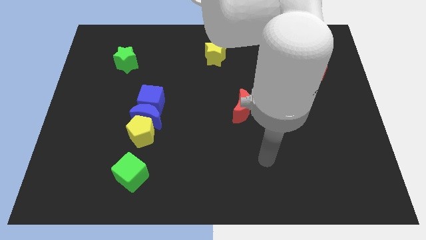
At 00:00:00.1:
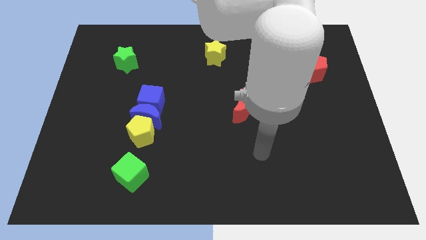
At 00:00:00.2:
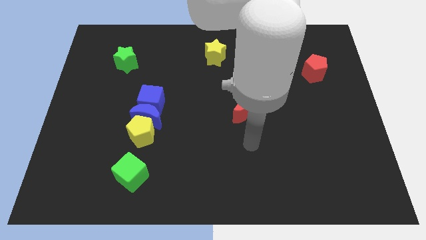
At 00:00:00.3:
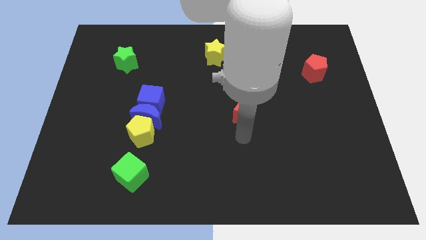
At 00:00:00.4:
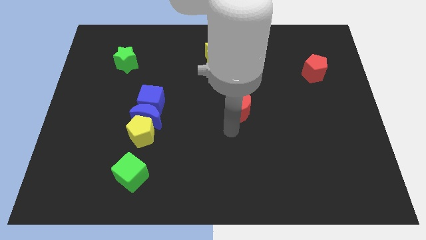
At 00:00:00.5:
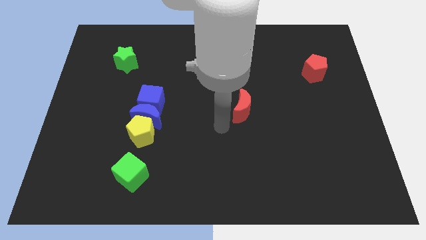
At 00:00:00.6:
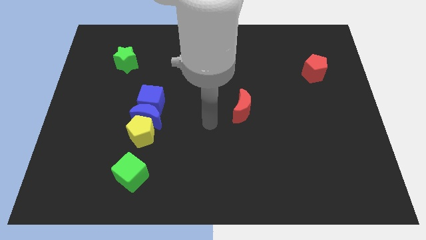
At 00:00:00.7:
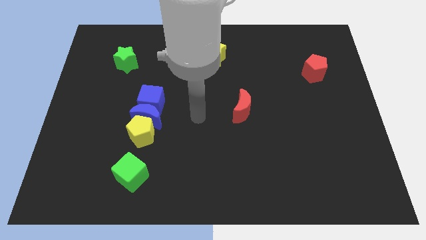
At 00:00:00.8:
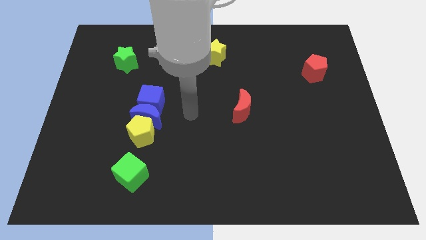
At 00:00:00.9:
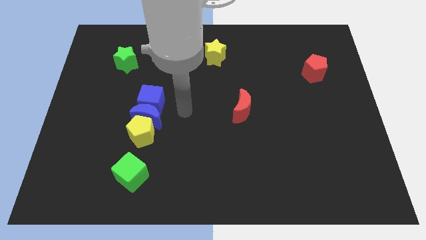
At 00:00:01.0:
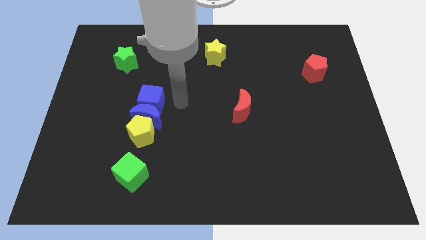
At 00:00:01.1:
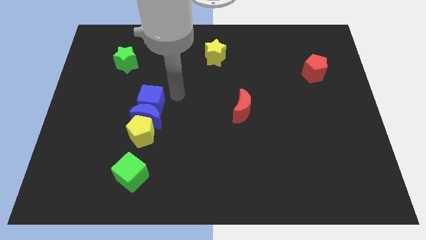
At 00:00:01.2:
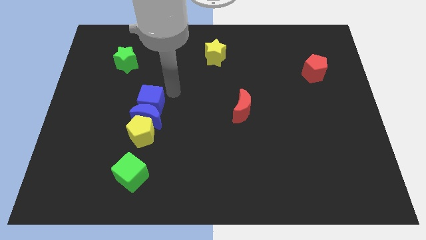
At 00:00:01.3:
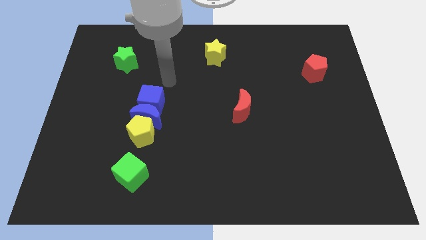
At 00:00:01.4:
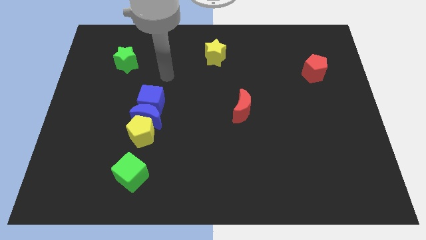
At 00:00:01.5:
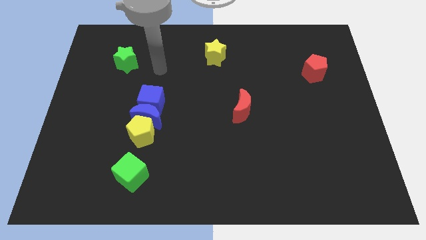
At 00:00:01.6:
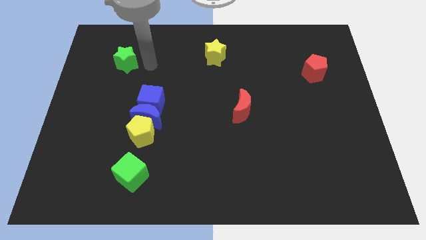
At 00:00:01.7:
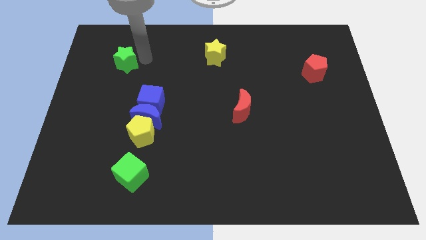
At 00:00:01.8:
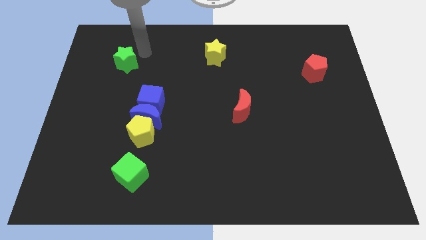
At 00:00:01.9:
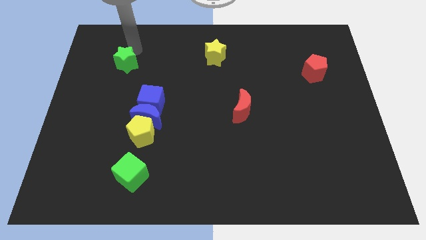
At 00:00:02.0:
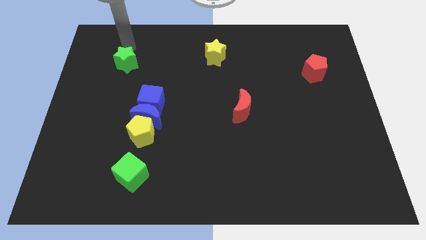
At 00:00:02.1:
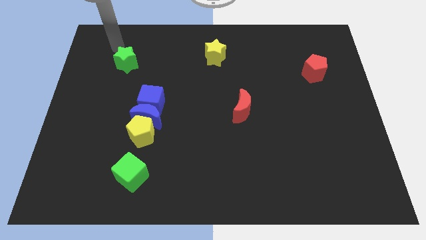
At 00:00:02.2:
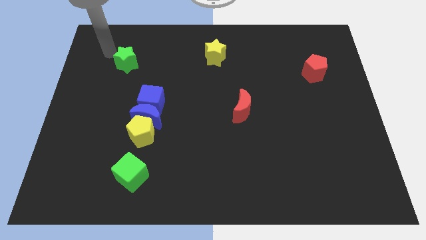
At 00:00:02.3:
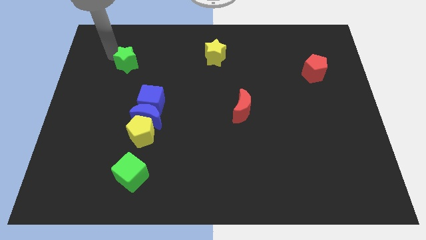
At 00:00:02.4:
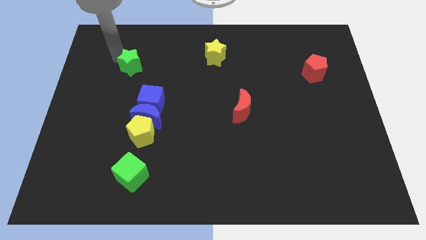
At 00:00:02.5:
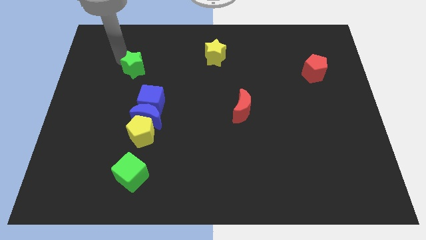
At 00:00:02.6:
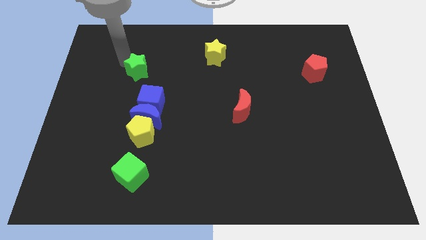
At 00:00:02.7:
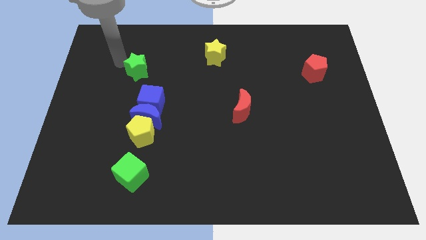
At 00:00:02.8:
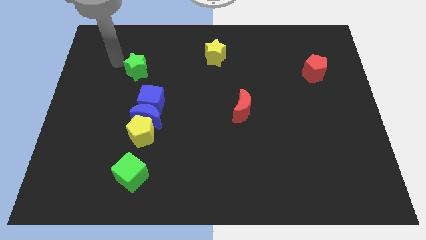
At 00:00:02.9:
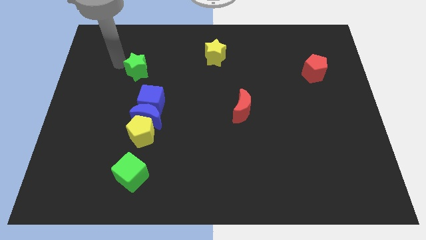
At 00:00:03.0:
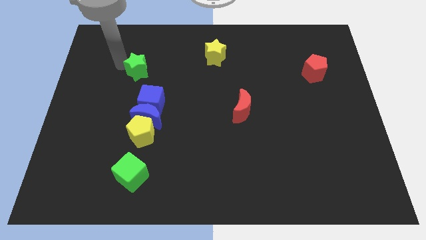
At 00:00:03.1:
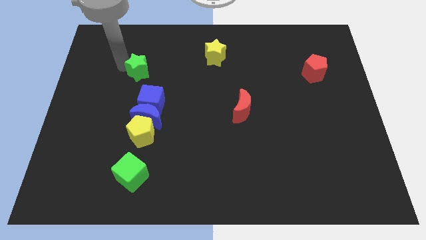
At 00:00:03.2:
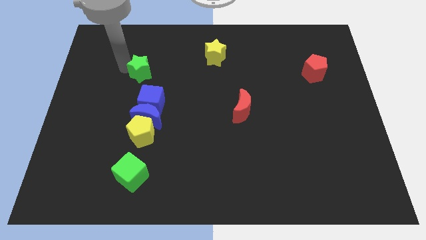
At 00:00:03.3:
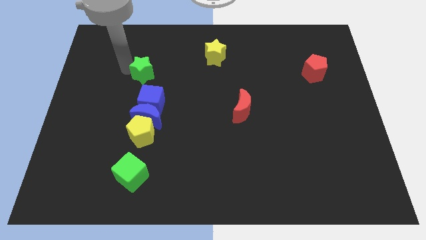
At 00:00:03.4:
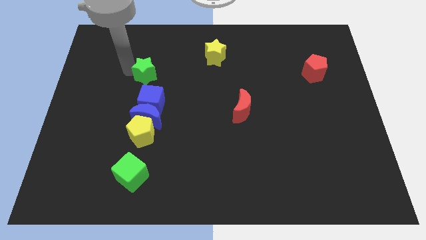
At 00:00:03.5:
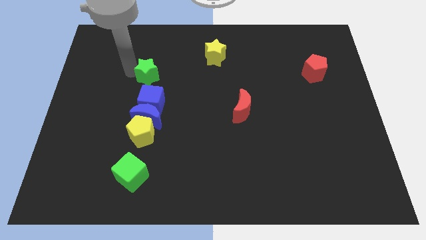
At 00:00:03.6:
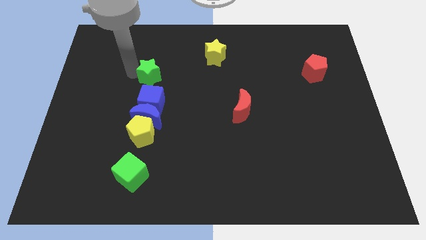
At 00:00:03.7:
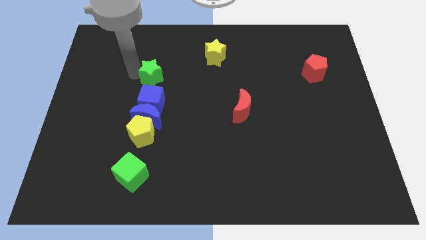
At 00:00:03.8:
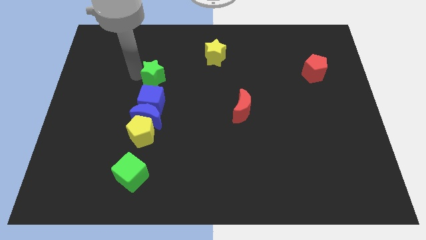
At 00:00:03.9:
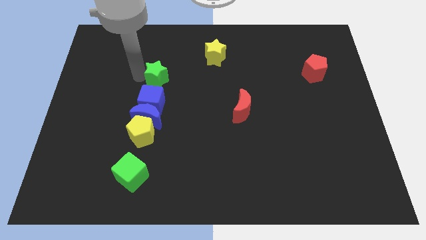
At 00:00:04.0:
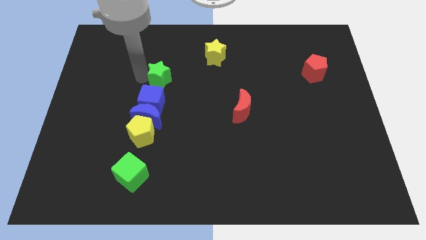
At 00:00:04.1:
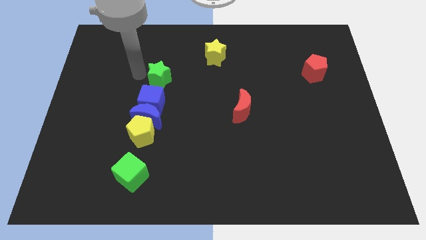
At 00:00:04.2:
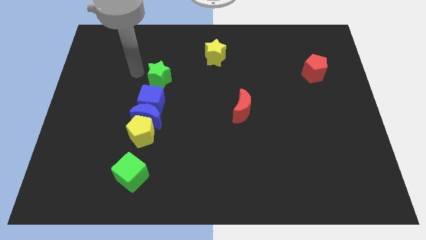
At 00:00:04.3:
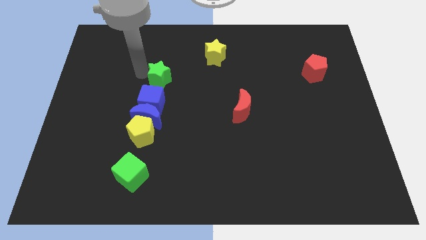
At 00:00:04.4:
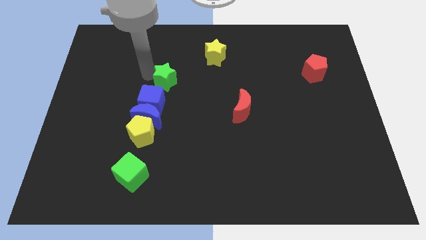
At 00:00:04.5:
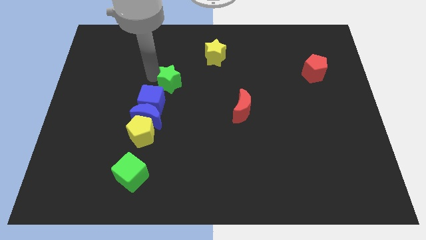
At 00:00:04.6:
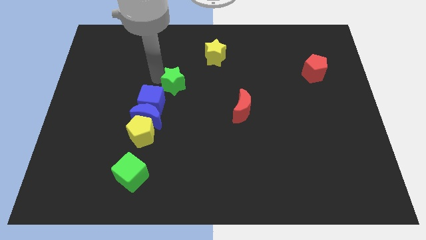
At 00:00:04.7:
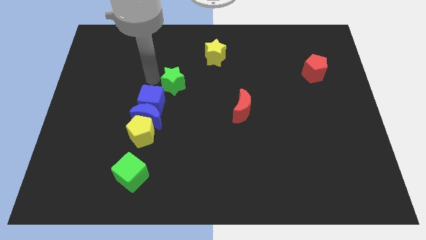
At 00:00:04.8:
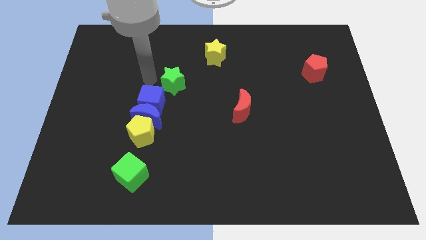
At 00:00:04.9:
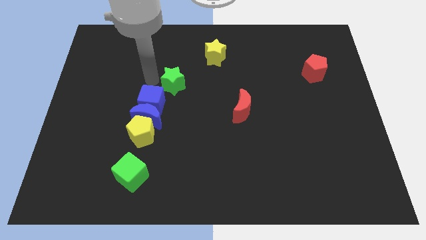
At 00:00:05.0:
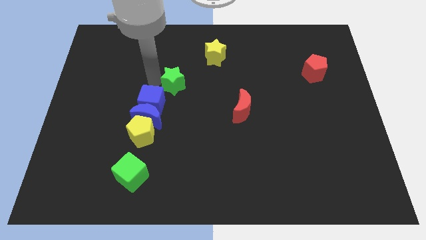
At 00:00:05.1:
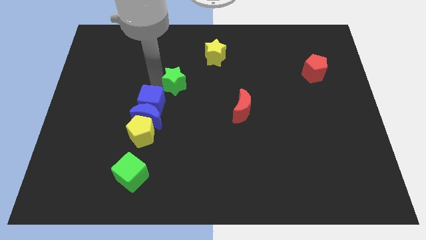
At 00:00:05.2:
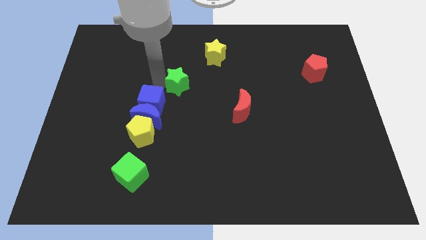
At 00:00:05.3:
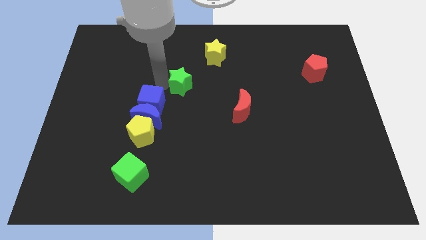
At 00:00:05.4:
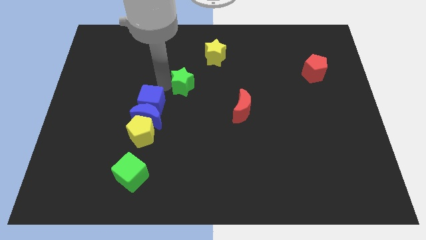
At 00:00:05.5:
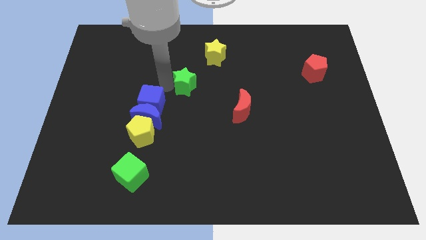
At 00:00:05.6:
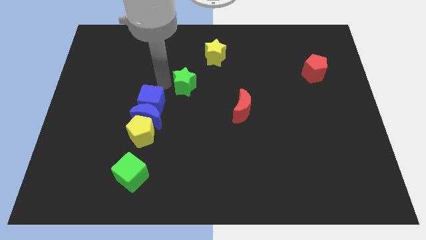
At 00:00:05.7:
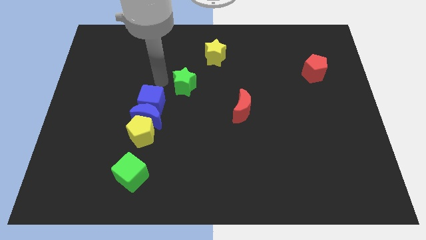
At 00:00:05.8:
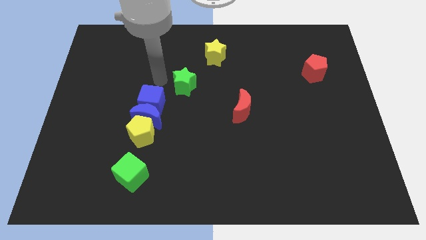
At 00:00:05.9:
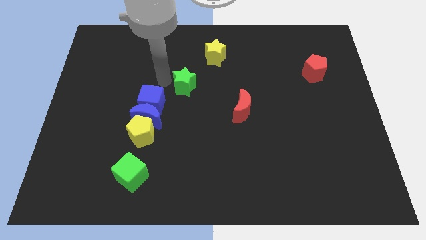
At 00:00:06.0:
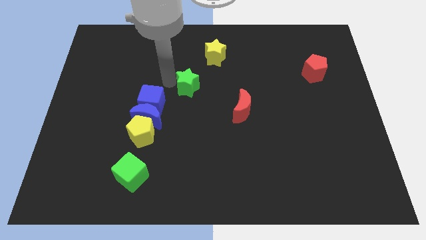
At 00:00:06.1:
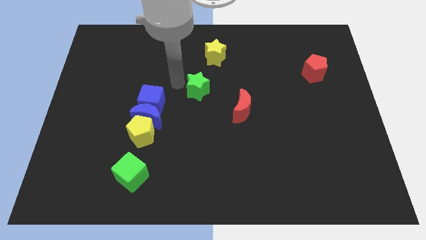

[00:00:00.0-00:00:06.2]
push the green star to the top left side of the red moon

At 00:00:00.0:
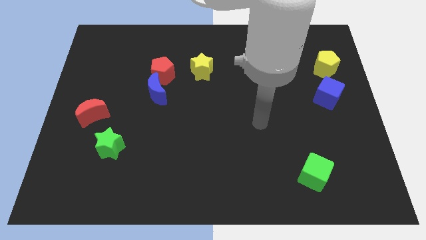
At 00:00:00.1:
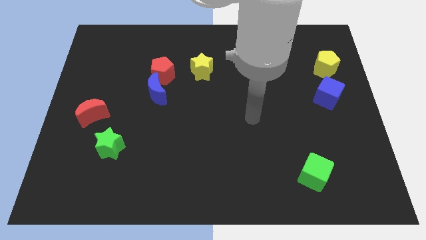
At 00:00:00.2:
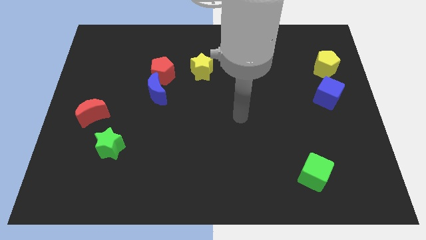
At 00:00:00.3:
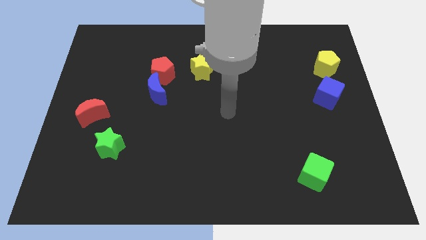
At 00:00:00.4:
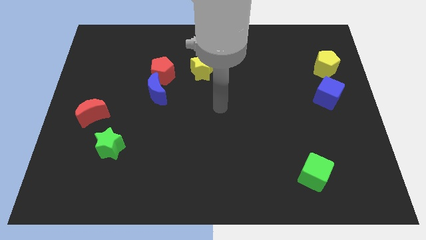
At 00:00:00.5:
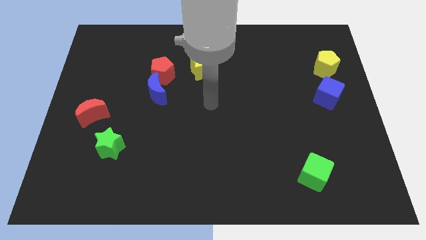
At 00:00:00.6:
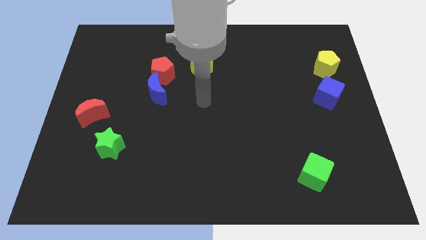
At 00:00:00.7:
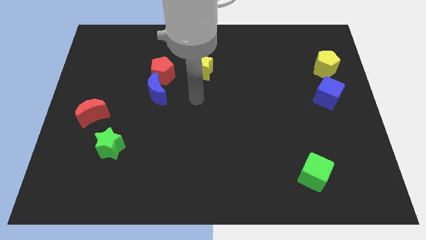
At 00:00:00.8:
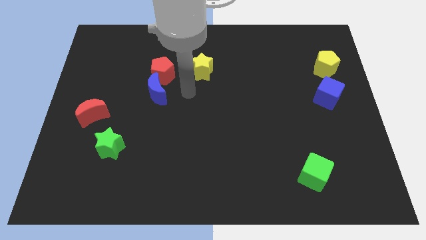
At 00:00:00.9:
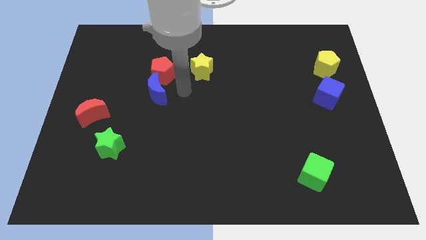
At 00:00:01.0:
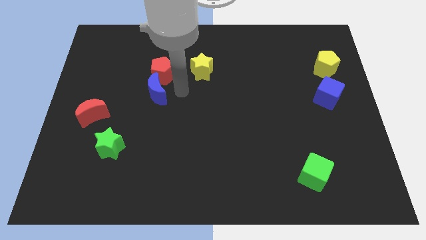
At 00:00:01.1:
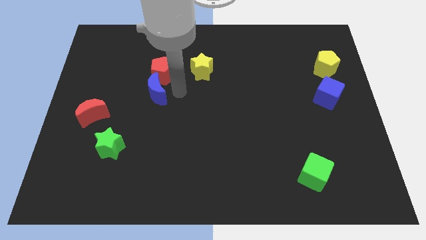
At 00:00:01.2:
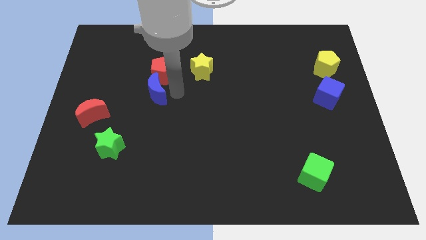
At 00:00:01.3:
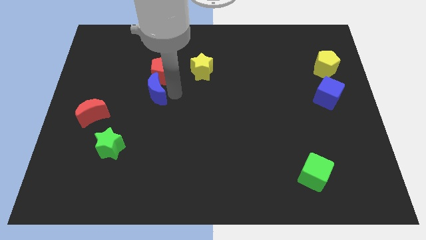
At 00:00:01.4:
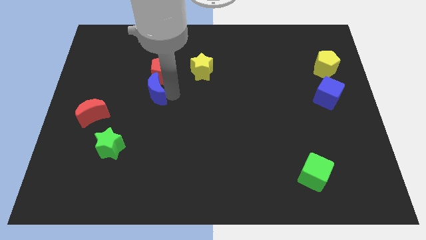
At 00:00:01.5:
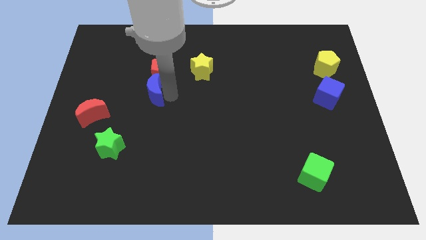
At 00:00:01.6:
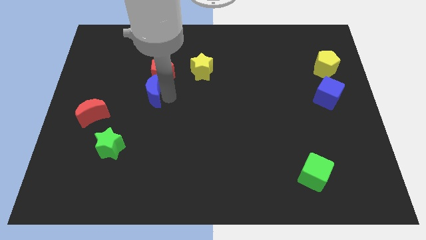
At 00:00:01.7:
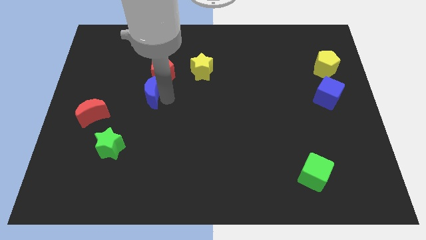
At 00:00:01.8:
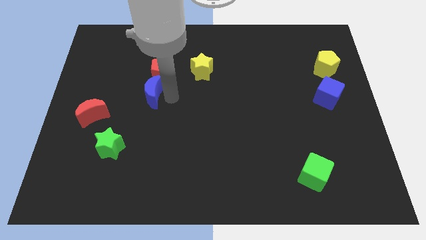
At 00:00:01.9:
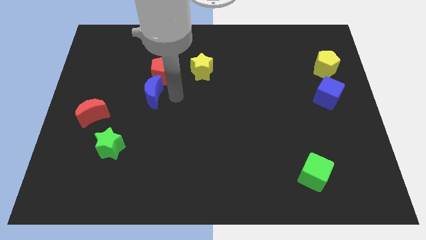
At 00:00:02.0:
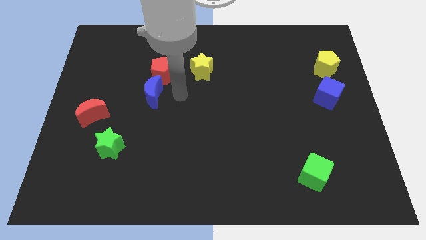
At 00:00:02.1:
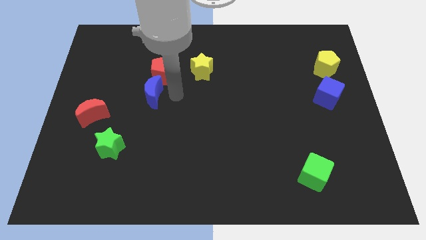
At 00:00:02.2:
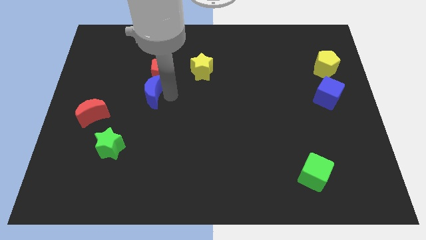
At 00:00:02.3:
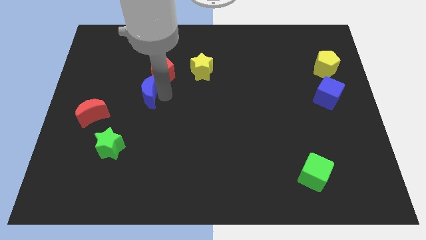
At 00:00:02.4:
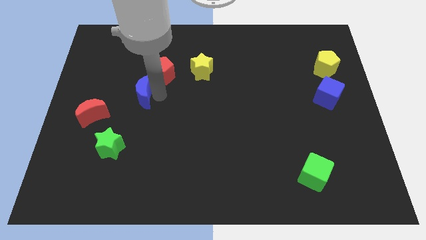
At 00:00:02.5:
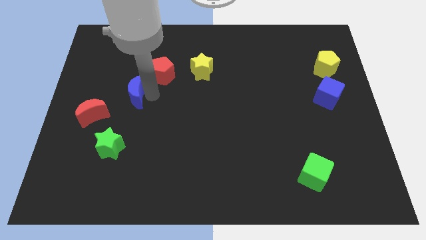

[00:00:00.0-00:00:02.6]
put the blue moon to the top right of the red moon
